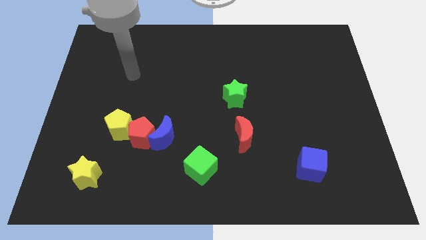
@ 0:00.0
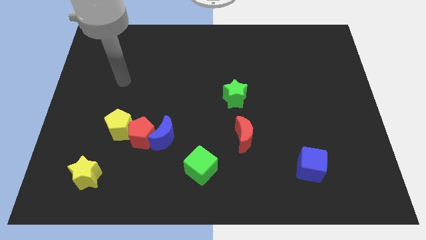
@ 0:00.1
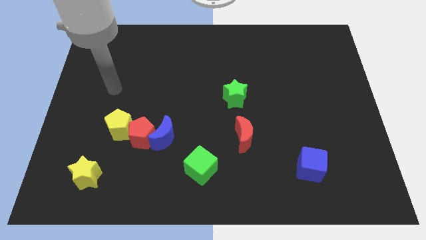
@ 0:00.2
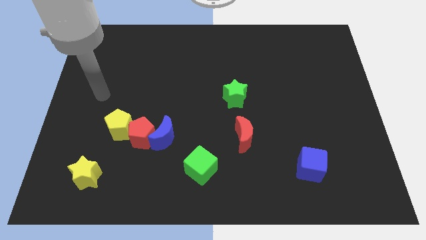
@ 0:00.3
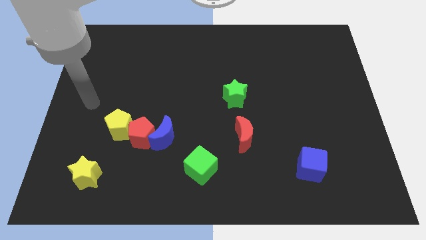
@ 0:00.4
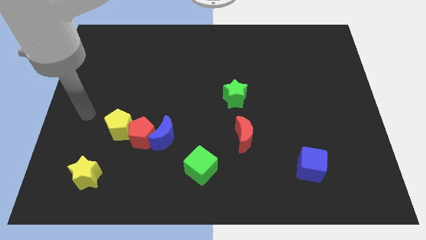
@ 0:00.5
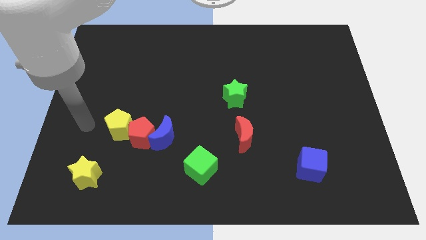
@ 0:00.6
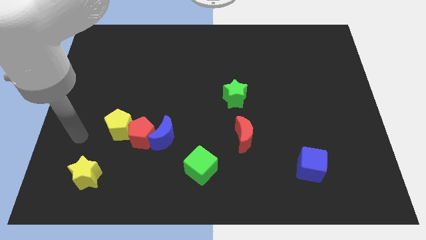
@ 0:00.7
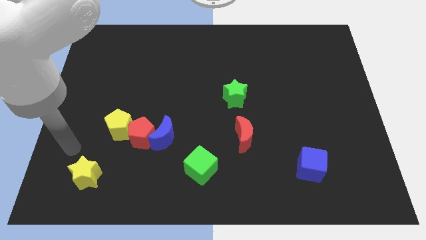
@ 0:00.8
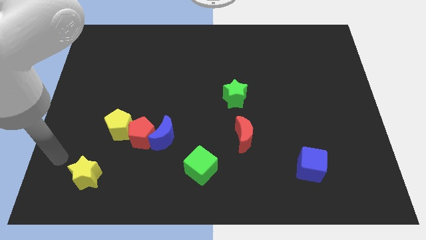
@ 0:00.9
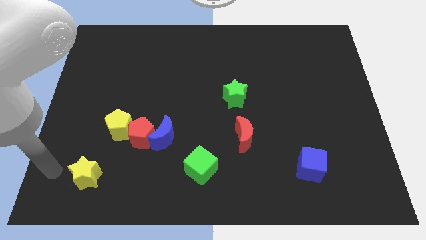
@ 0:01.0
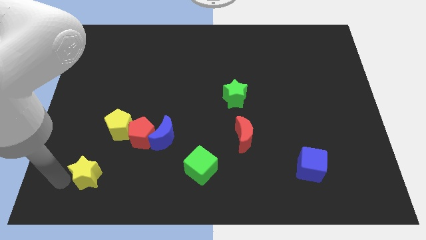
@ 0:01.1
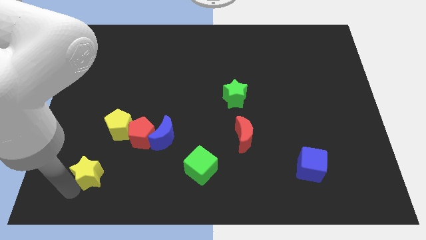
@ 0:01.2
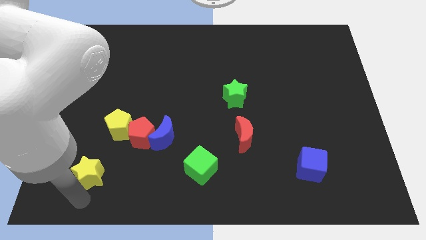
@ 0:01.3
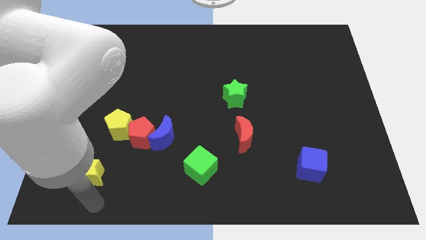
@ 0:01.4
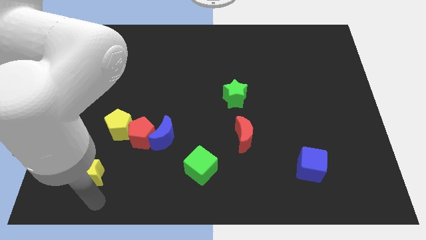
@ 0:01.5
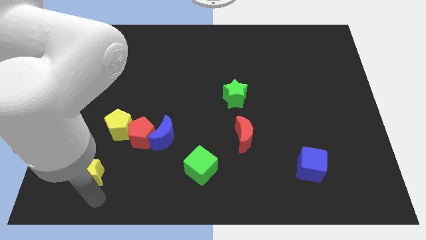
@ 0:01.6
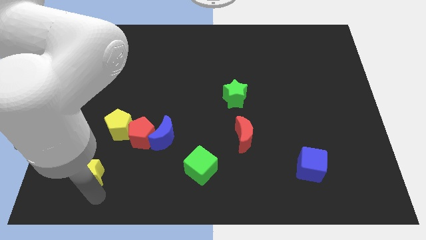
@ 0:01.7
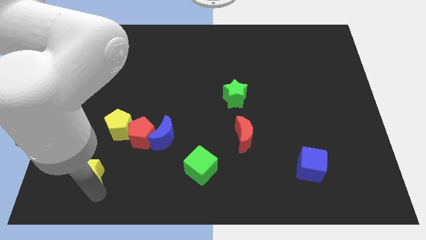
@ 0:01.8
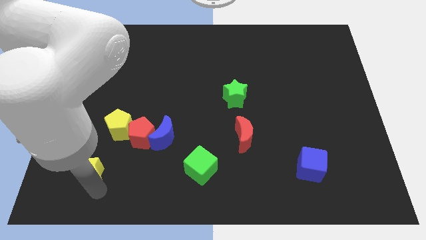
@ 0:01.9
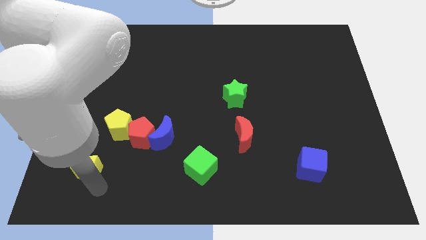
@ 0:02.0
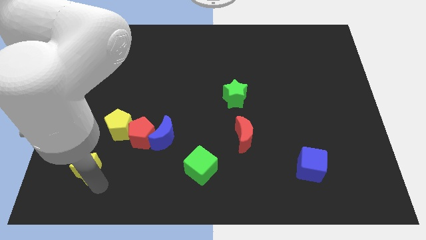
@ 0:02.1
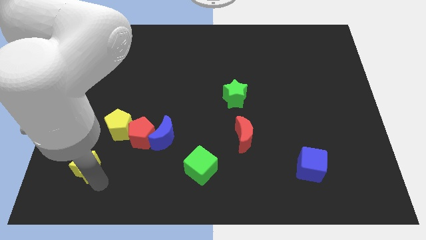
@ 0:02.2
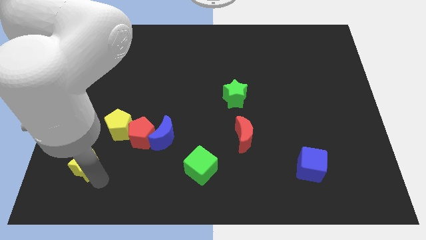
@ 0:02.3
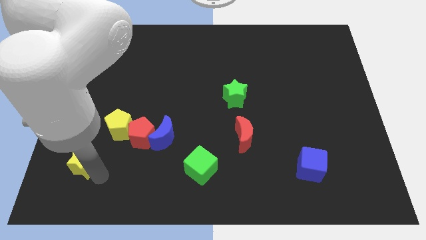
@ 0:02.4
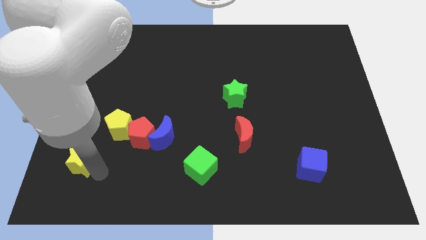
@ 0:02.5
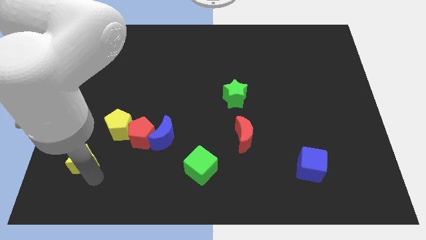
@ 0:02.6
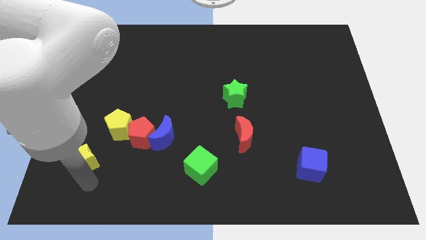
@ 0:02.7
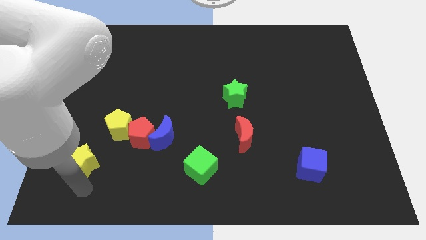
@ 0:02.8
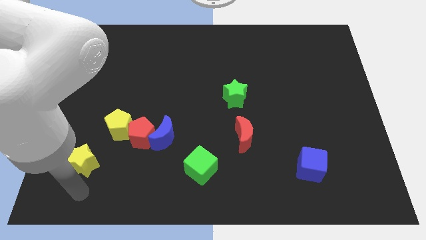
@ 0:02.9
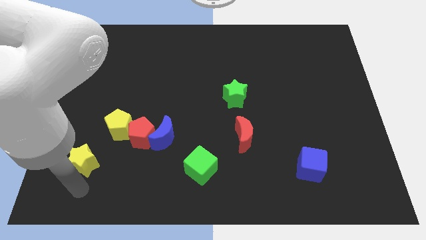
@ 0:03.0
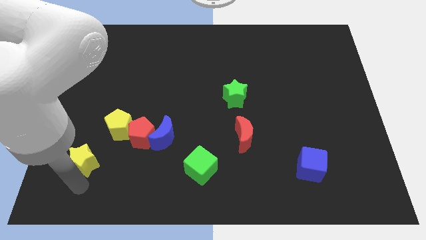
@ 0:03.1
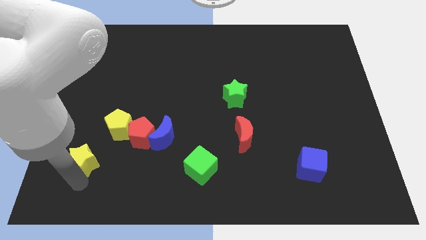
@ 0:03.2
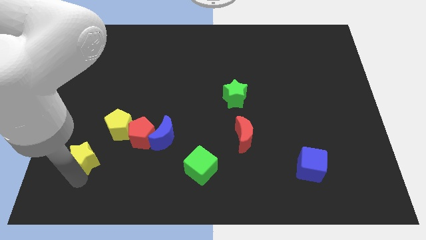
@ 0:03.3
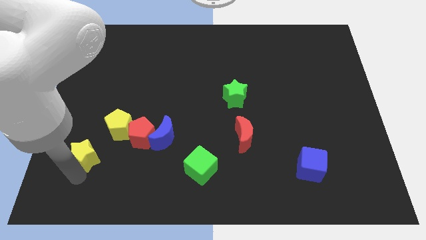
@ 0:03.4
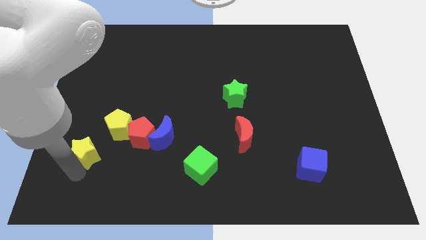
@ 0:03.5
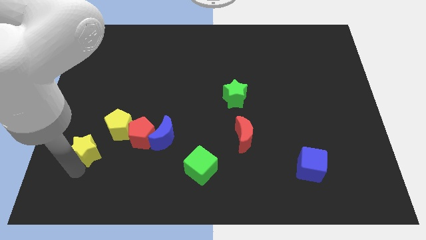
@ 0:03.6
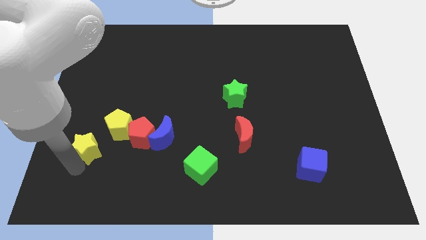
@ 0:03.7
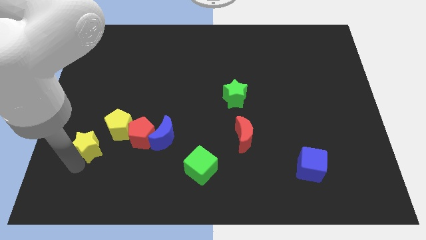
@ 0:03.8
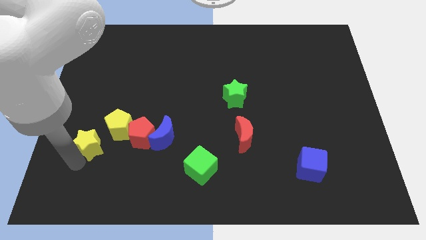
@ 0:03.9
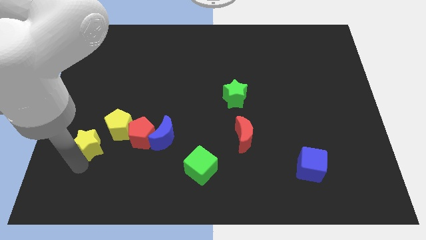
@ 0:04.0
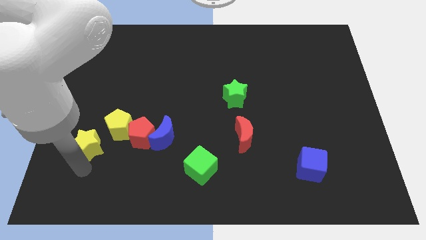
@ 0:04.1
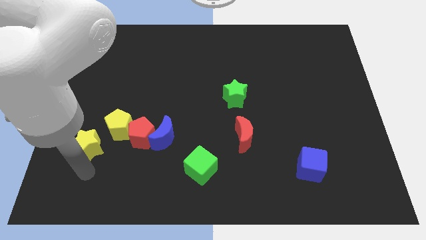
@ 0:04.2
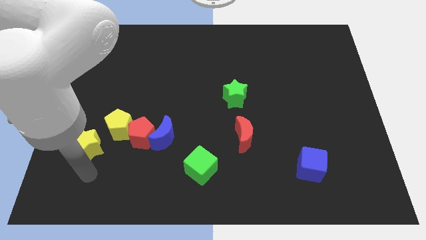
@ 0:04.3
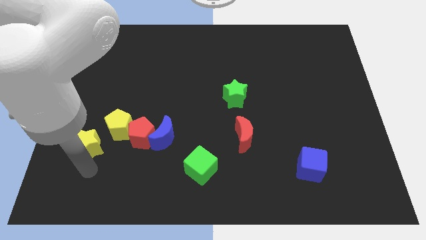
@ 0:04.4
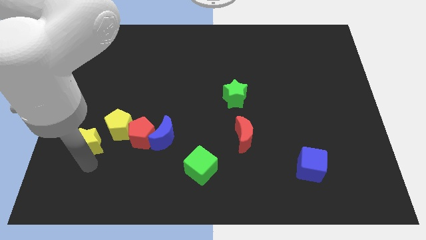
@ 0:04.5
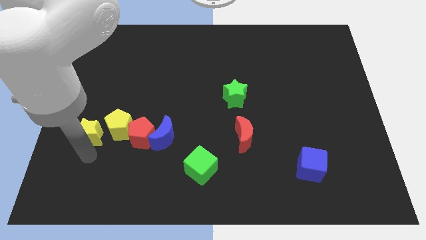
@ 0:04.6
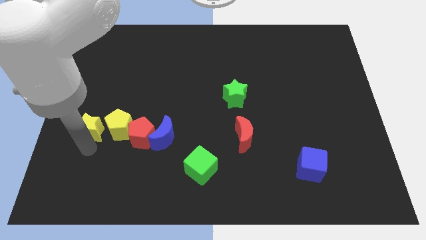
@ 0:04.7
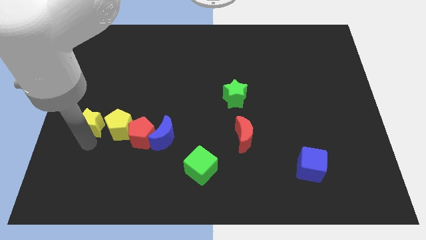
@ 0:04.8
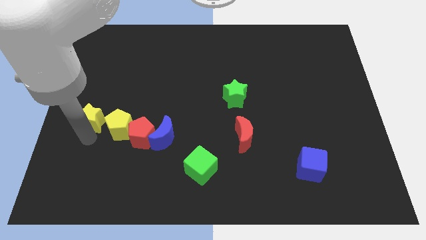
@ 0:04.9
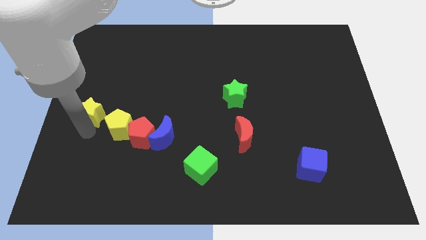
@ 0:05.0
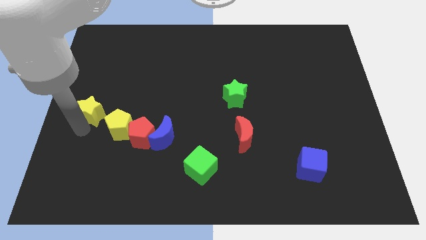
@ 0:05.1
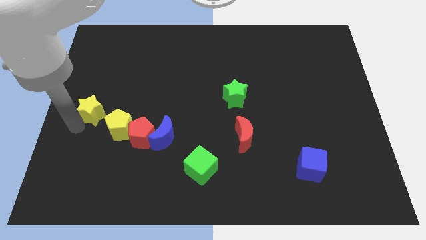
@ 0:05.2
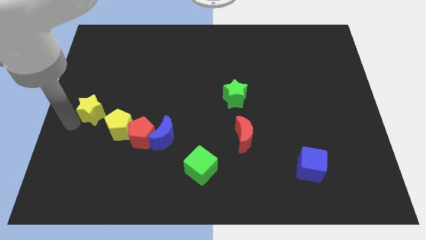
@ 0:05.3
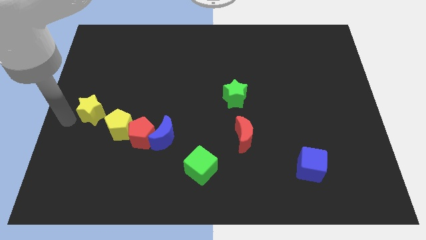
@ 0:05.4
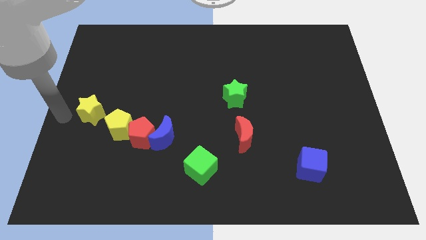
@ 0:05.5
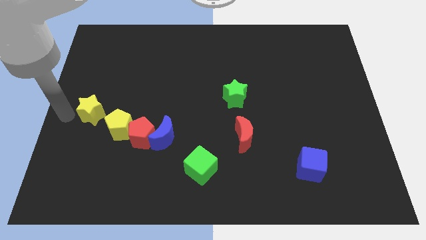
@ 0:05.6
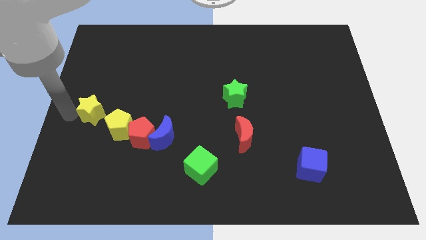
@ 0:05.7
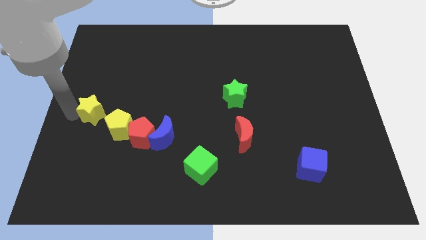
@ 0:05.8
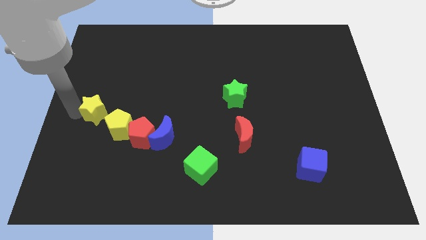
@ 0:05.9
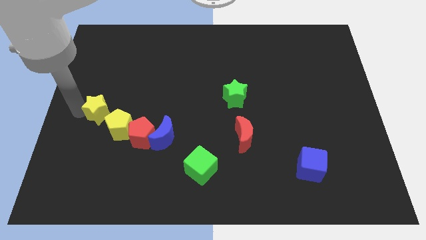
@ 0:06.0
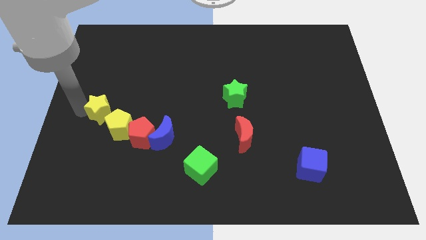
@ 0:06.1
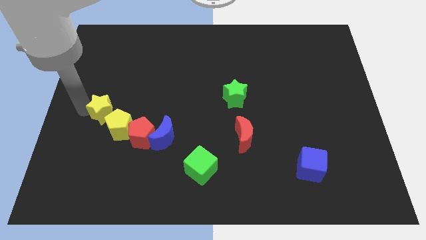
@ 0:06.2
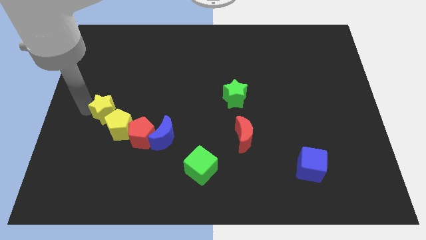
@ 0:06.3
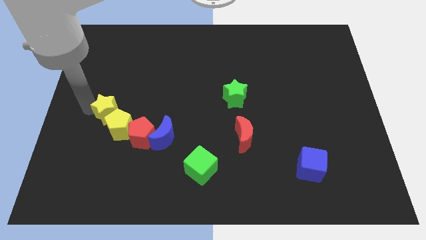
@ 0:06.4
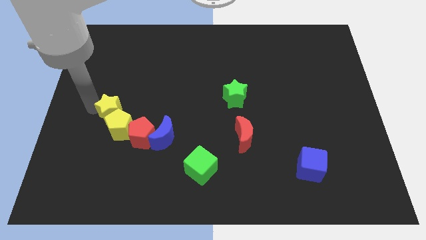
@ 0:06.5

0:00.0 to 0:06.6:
move the yellow star somewhat diagonally upwards and right

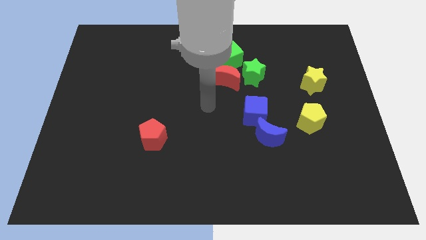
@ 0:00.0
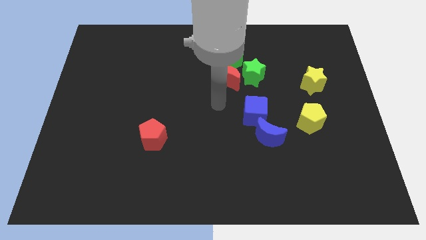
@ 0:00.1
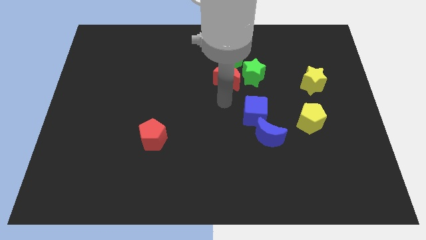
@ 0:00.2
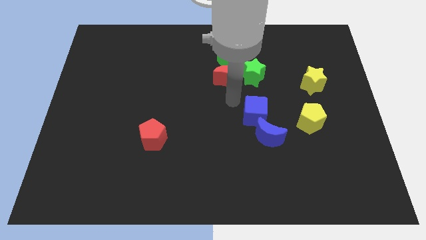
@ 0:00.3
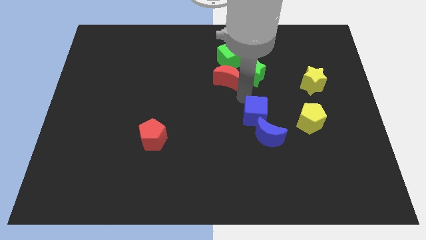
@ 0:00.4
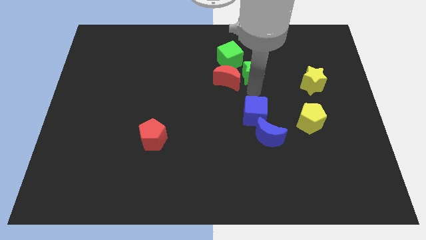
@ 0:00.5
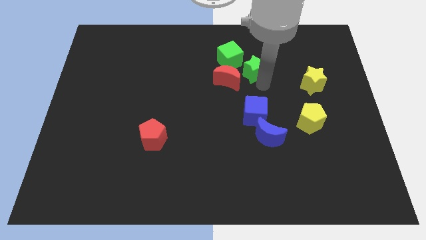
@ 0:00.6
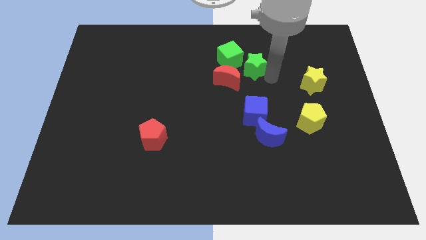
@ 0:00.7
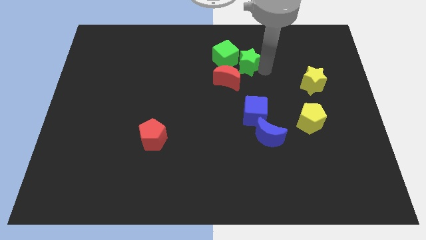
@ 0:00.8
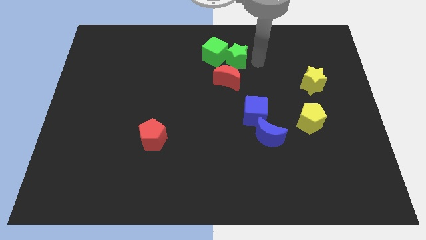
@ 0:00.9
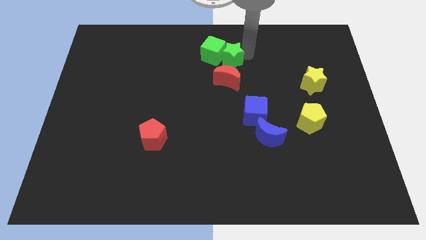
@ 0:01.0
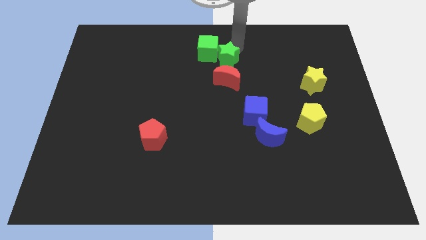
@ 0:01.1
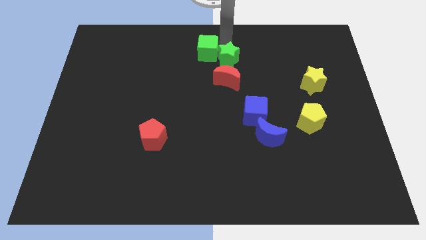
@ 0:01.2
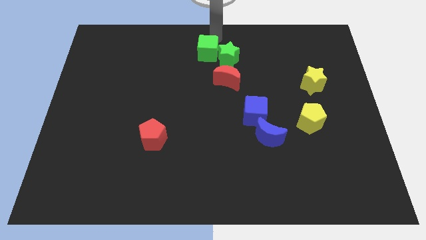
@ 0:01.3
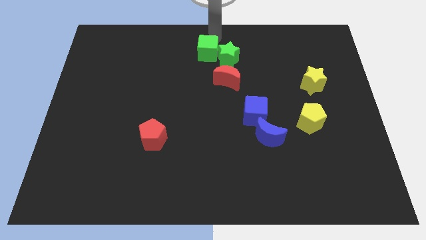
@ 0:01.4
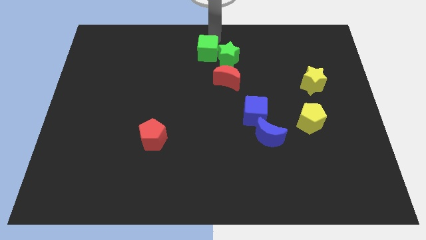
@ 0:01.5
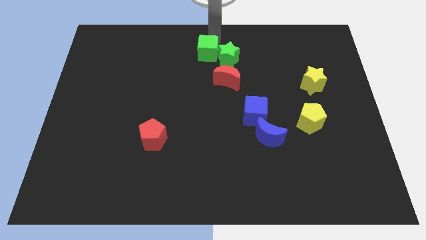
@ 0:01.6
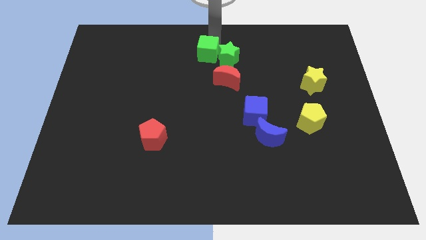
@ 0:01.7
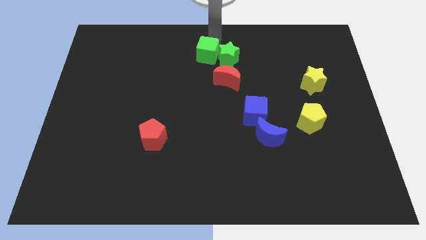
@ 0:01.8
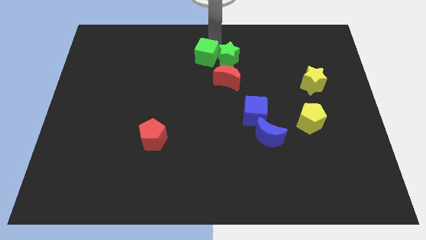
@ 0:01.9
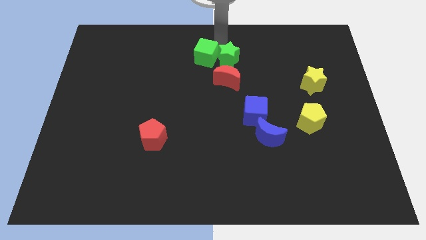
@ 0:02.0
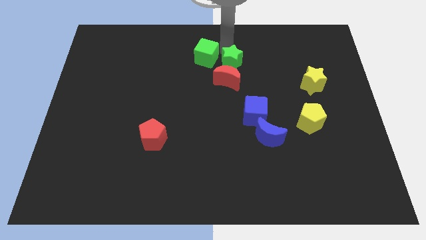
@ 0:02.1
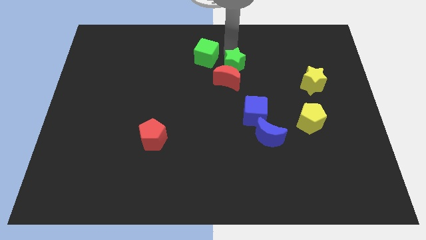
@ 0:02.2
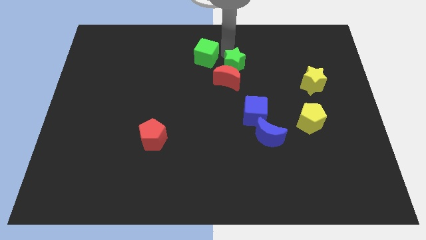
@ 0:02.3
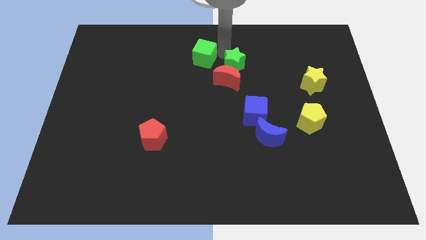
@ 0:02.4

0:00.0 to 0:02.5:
slightly push the green cube left
